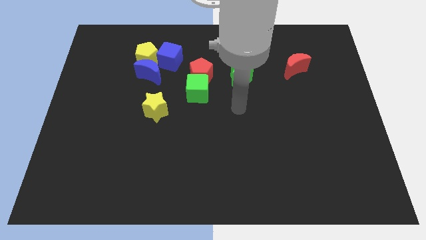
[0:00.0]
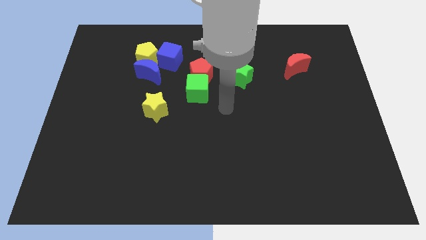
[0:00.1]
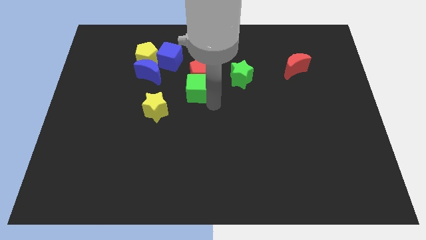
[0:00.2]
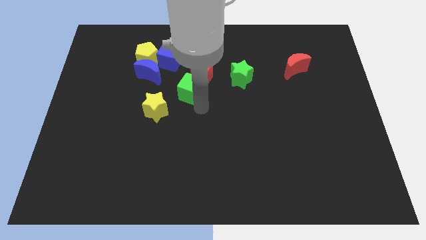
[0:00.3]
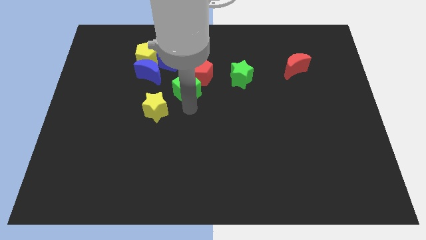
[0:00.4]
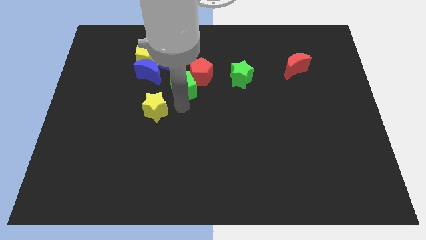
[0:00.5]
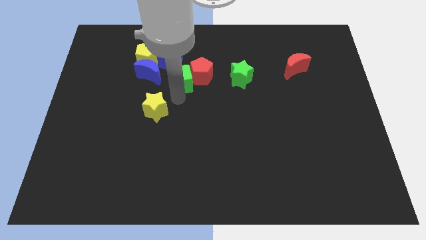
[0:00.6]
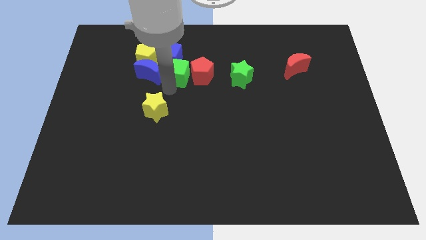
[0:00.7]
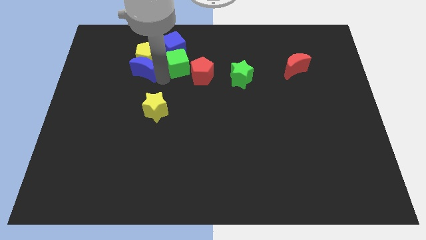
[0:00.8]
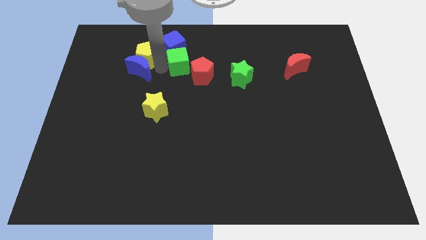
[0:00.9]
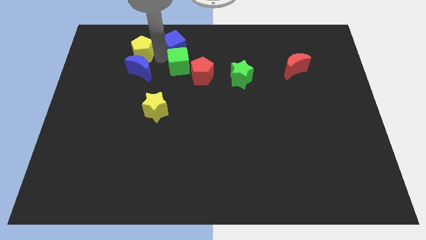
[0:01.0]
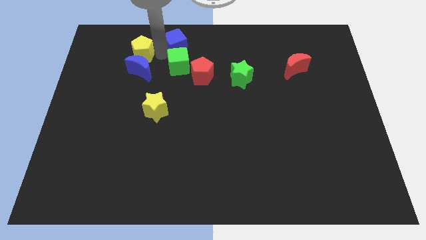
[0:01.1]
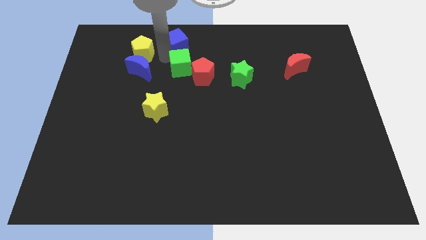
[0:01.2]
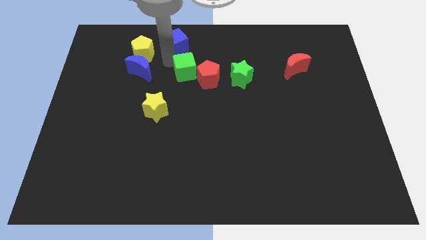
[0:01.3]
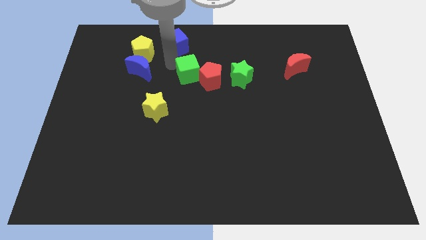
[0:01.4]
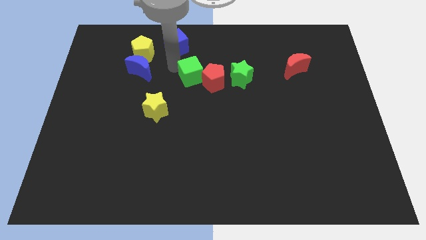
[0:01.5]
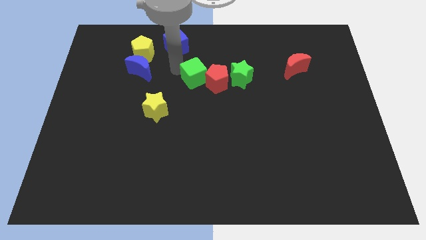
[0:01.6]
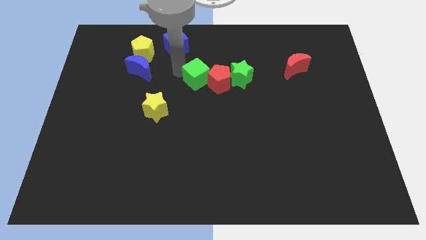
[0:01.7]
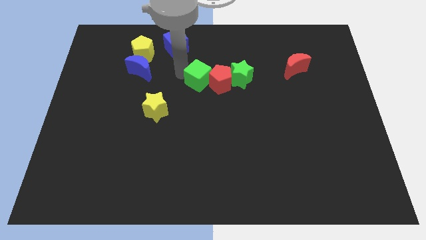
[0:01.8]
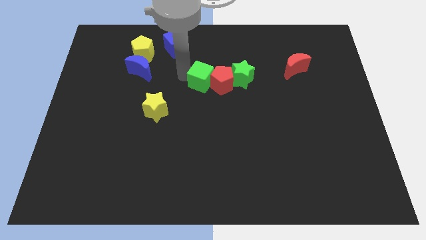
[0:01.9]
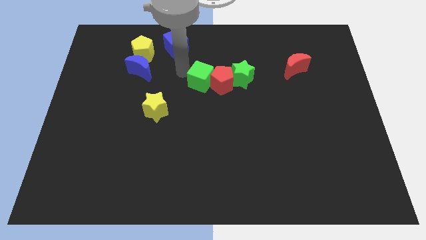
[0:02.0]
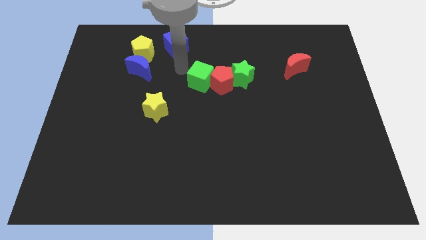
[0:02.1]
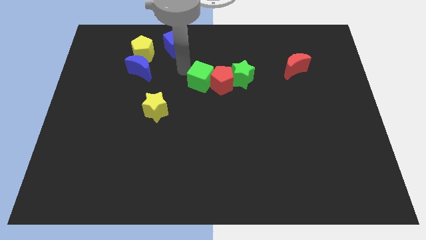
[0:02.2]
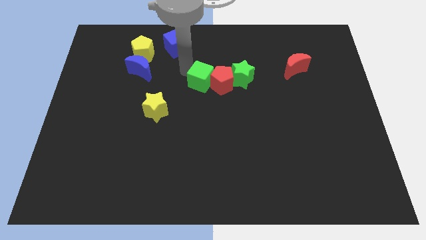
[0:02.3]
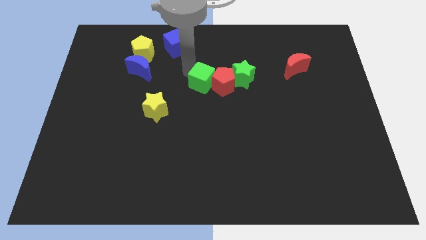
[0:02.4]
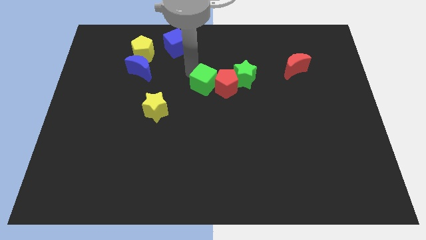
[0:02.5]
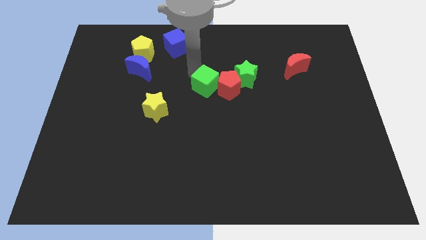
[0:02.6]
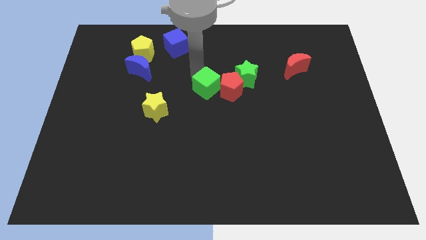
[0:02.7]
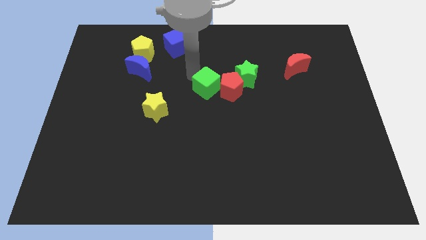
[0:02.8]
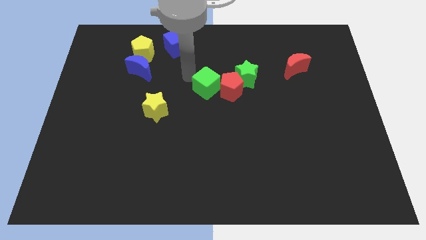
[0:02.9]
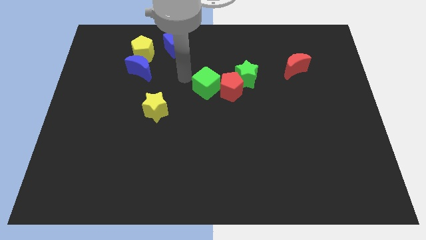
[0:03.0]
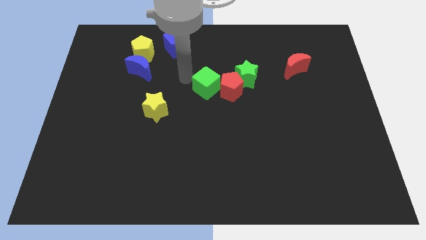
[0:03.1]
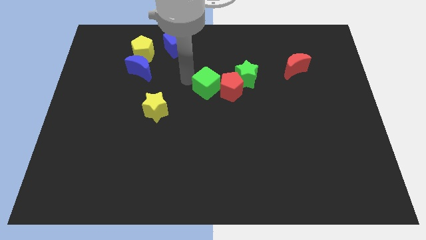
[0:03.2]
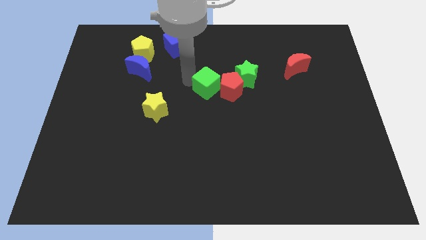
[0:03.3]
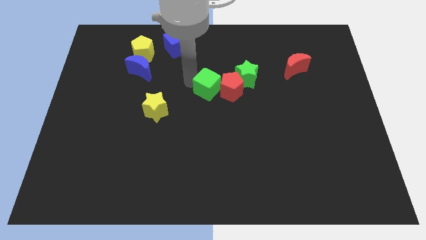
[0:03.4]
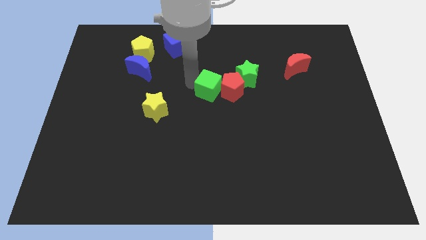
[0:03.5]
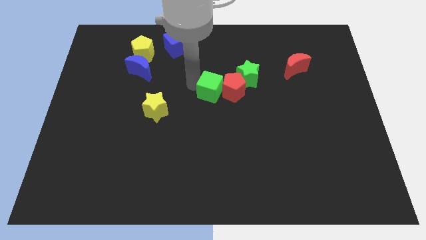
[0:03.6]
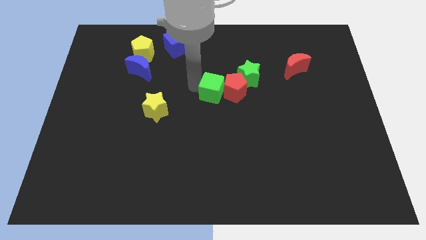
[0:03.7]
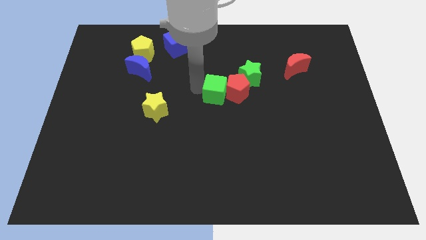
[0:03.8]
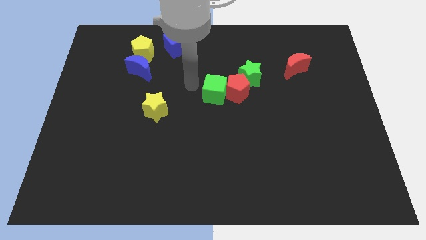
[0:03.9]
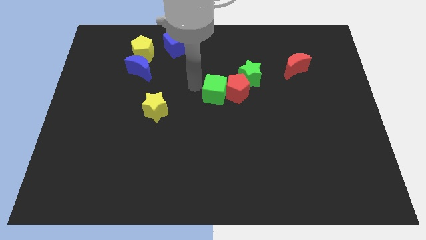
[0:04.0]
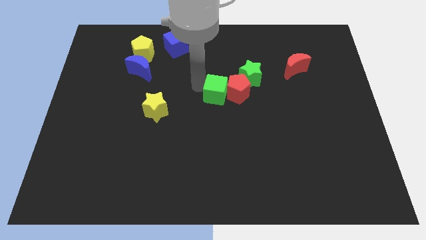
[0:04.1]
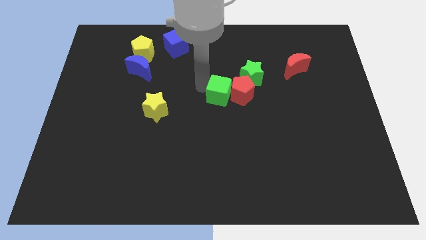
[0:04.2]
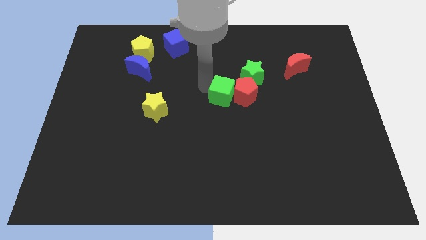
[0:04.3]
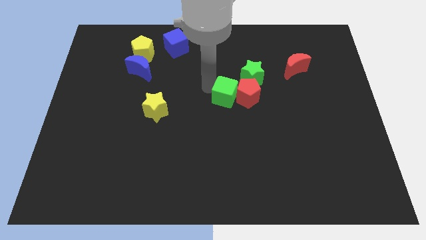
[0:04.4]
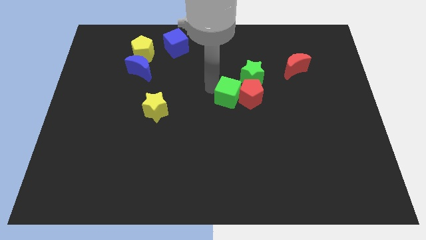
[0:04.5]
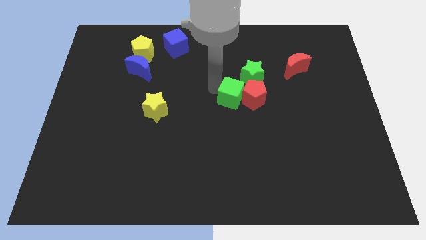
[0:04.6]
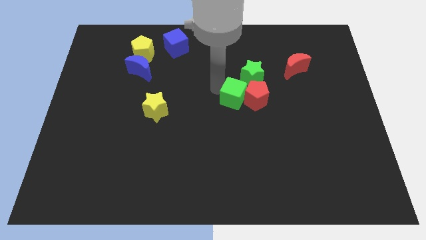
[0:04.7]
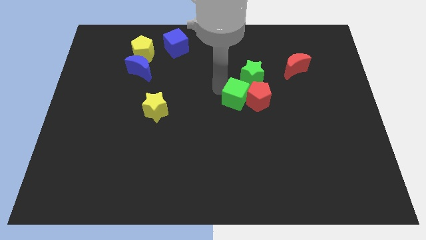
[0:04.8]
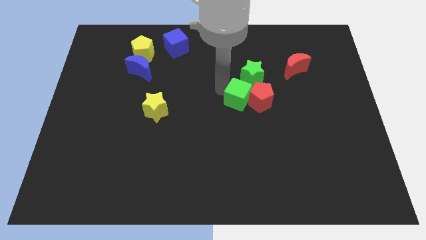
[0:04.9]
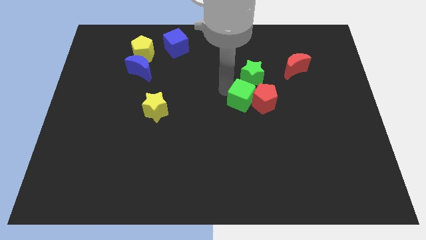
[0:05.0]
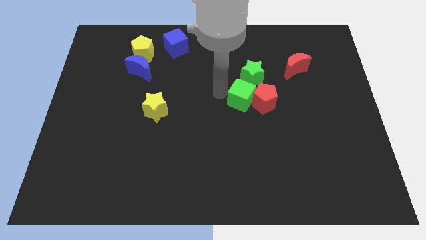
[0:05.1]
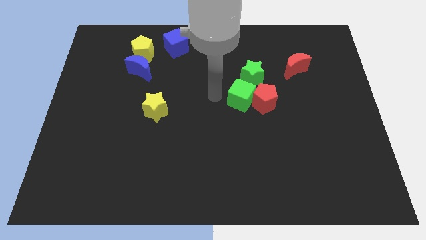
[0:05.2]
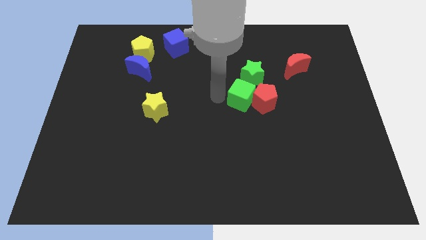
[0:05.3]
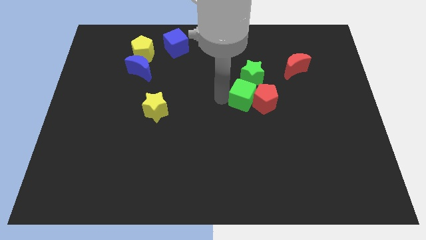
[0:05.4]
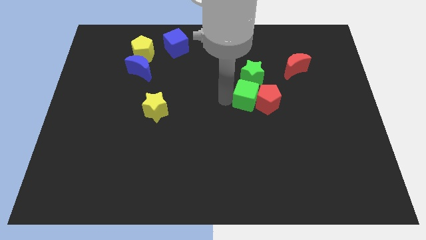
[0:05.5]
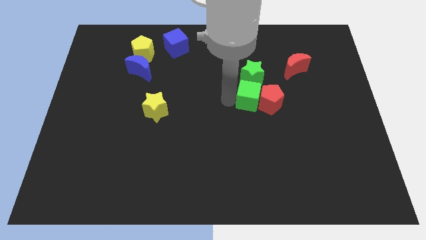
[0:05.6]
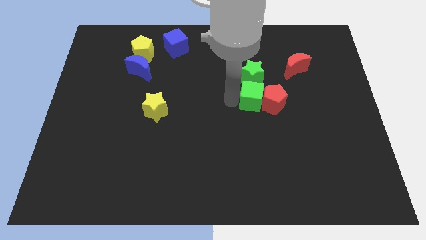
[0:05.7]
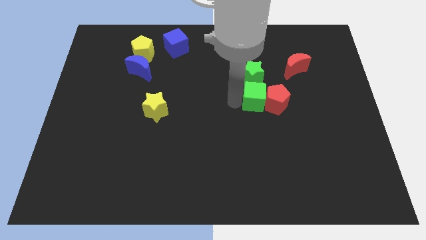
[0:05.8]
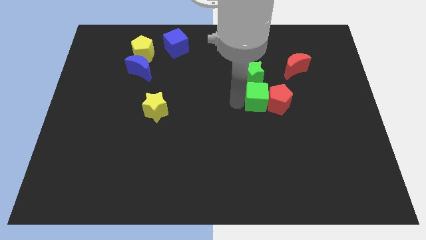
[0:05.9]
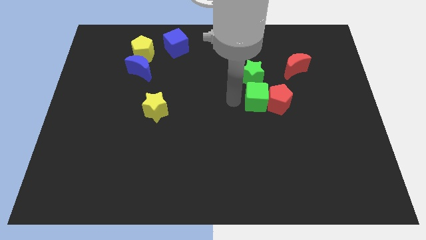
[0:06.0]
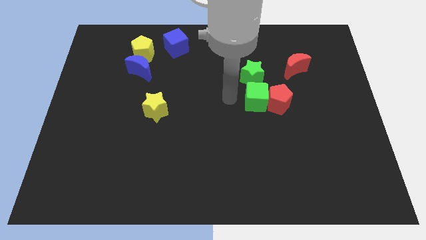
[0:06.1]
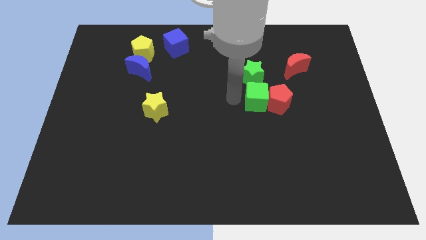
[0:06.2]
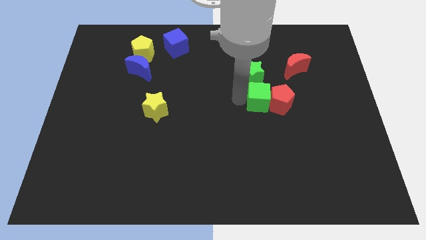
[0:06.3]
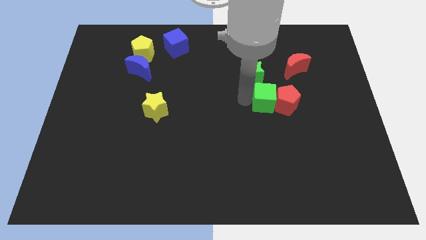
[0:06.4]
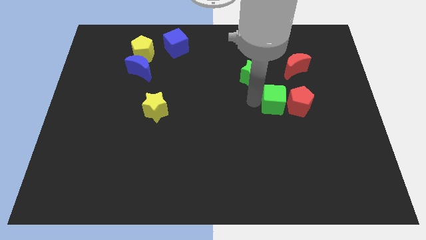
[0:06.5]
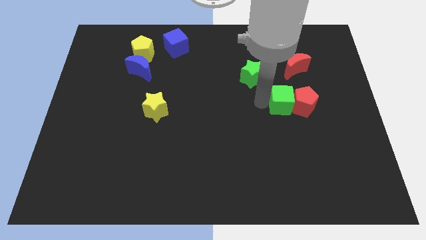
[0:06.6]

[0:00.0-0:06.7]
put the green cube below the red moon
